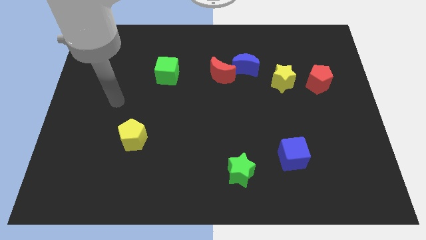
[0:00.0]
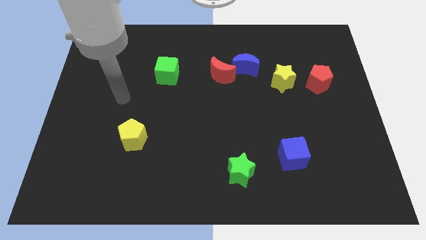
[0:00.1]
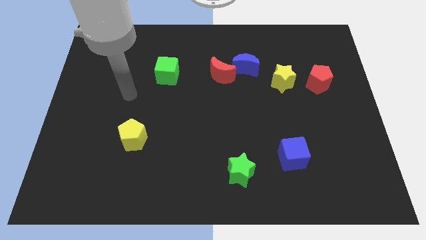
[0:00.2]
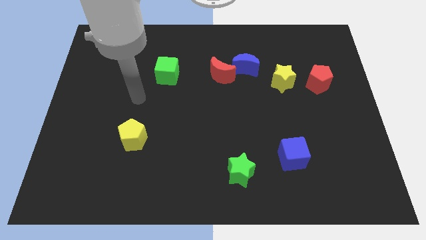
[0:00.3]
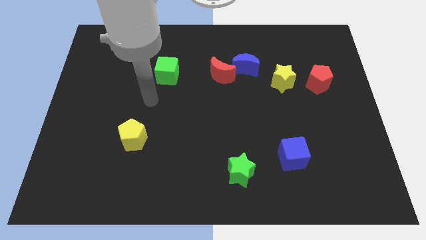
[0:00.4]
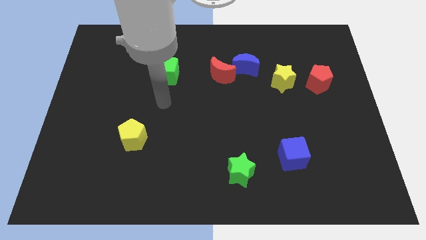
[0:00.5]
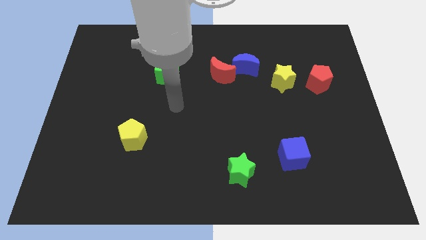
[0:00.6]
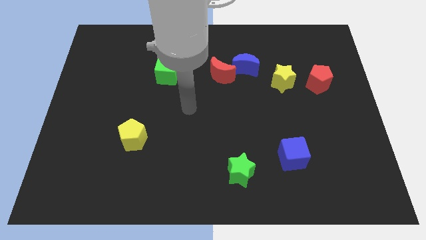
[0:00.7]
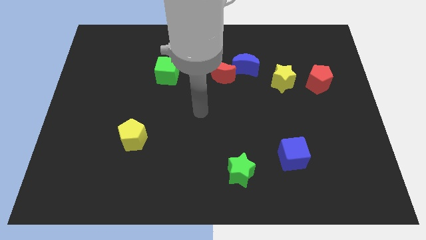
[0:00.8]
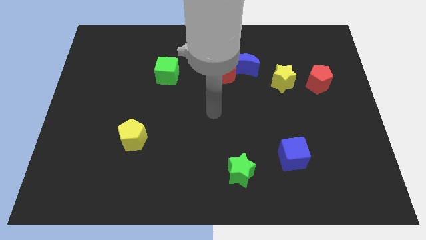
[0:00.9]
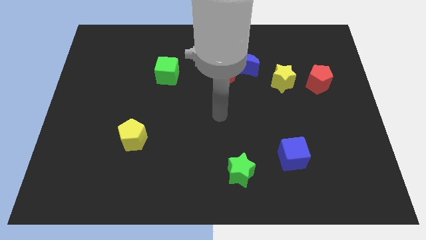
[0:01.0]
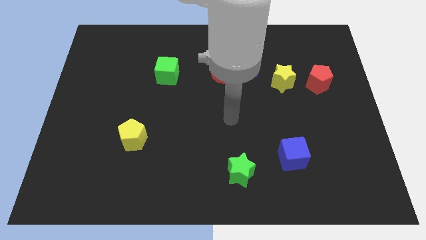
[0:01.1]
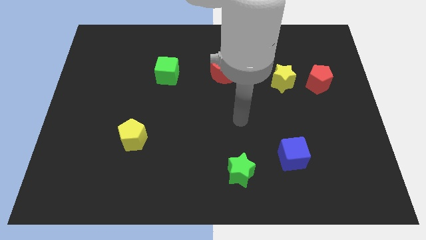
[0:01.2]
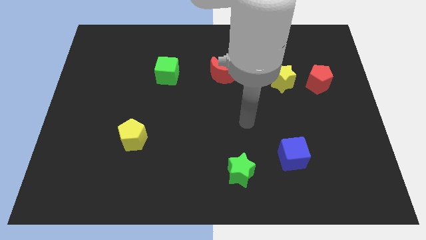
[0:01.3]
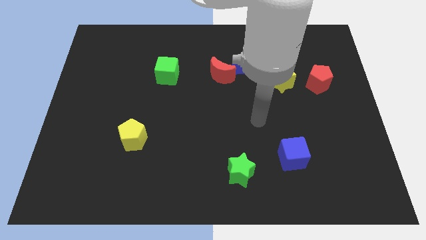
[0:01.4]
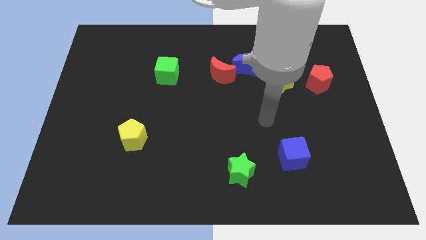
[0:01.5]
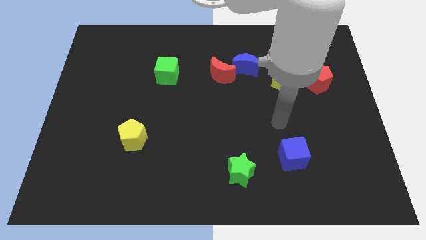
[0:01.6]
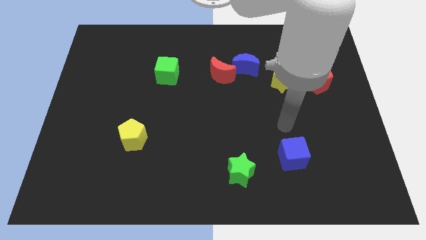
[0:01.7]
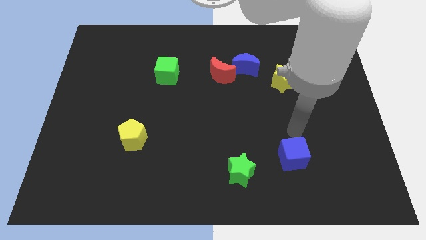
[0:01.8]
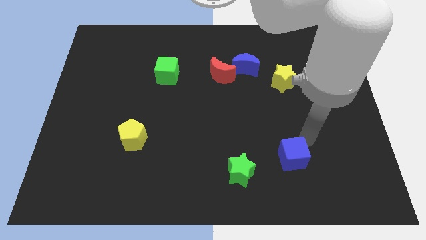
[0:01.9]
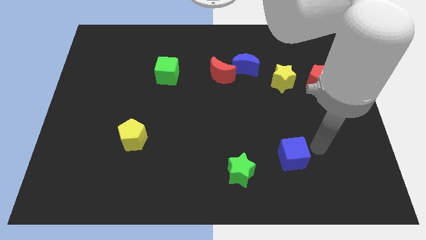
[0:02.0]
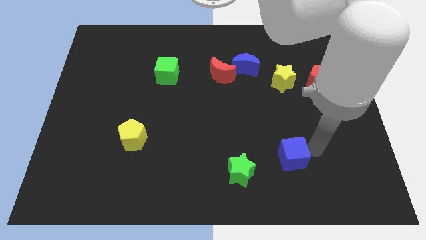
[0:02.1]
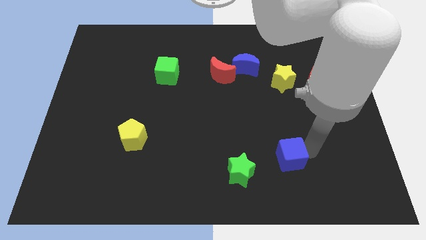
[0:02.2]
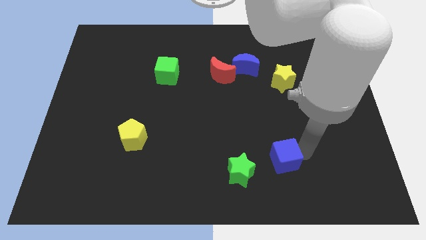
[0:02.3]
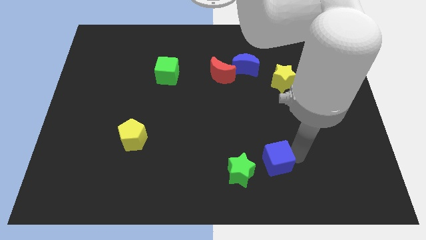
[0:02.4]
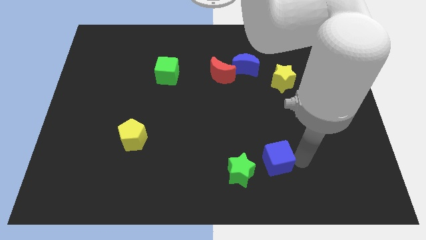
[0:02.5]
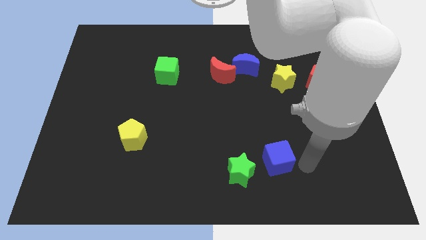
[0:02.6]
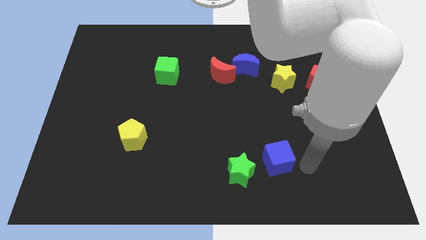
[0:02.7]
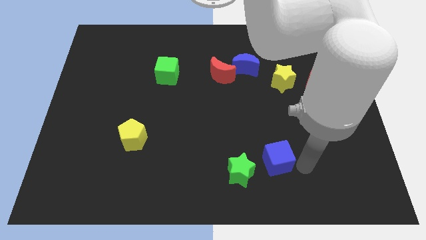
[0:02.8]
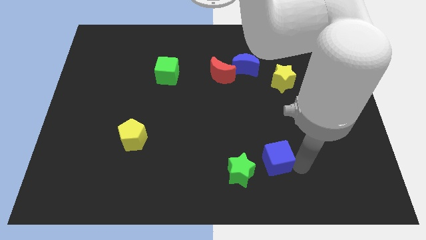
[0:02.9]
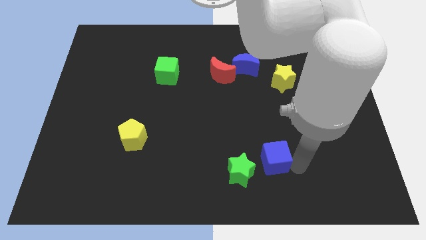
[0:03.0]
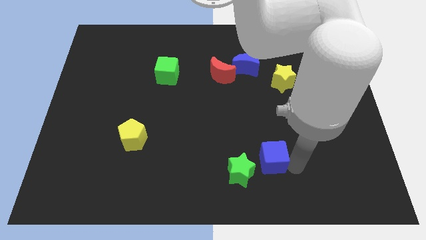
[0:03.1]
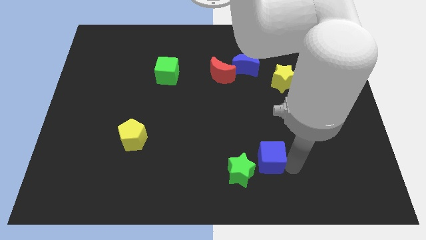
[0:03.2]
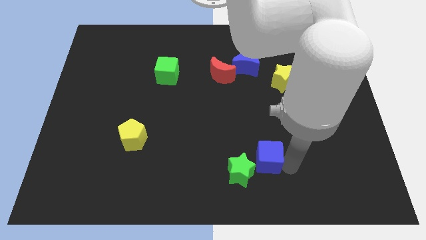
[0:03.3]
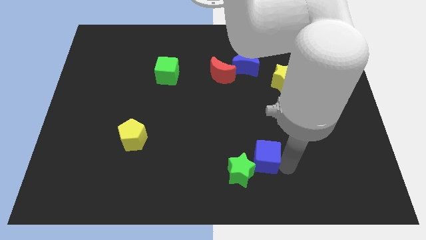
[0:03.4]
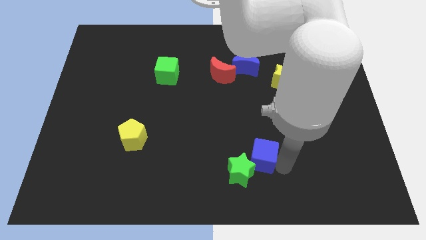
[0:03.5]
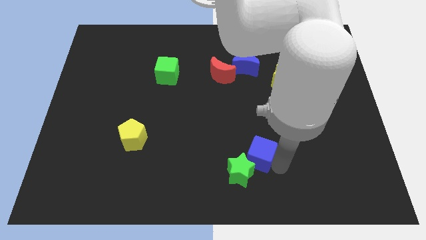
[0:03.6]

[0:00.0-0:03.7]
push the blue cube a little to the left

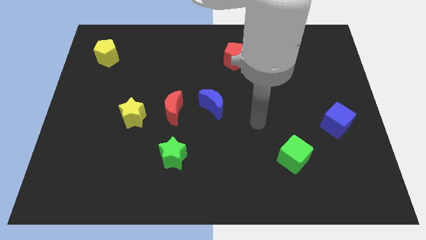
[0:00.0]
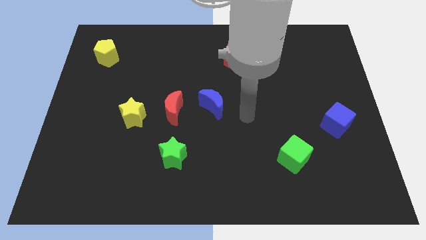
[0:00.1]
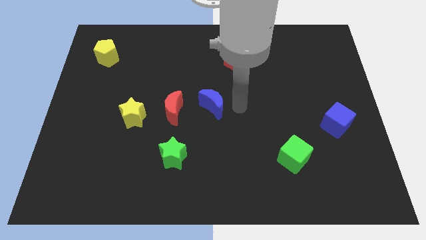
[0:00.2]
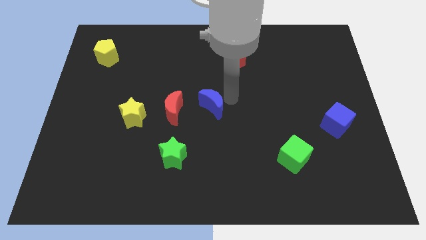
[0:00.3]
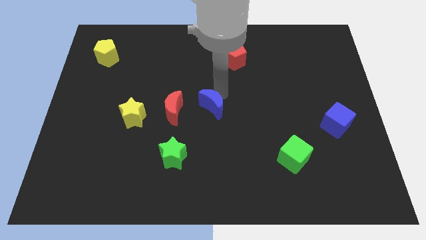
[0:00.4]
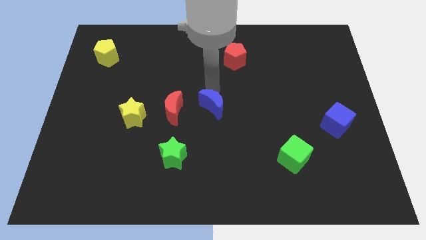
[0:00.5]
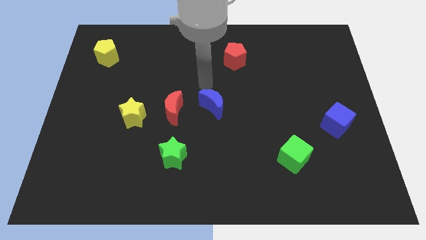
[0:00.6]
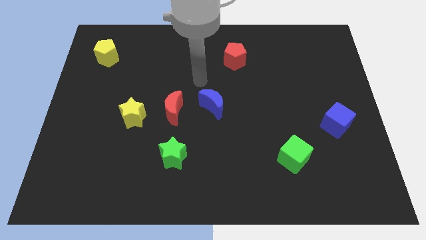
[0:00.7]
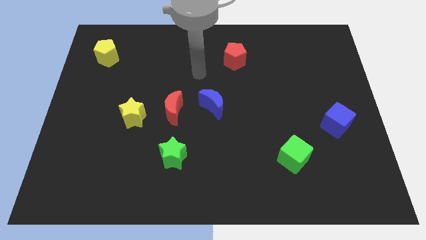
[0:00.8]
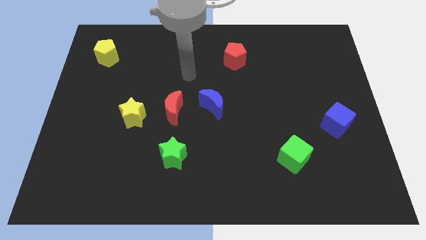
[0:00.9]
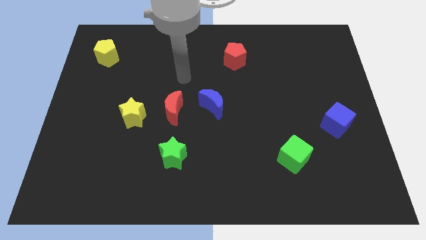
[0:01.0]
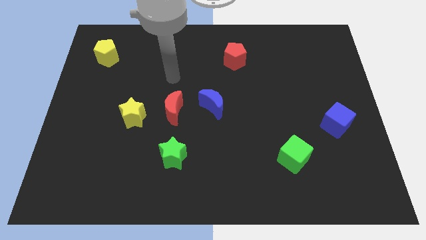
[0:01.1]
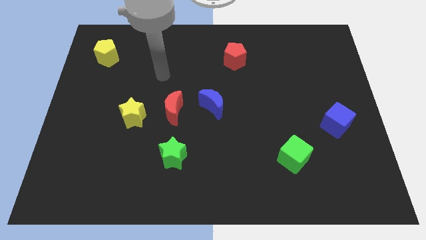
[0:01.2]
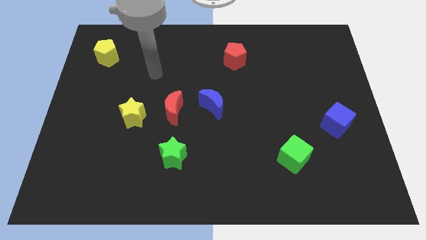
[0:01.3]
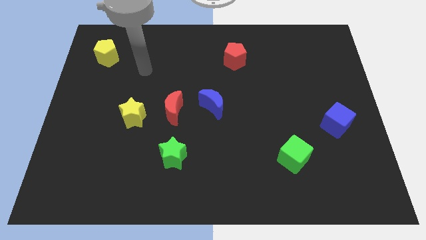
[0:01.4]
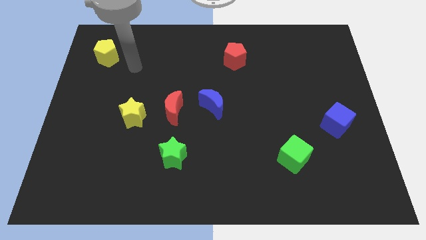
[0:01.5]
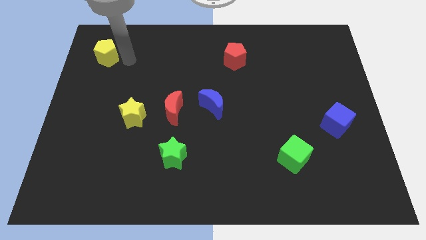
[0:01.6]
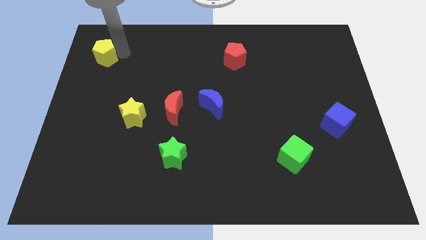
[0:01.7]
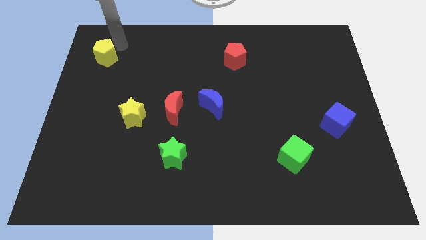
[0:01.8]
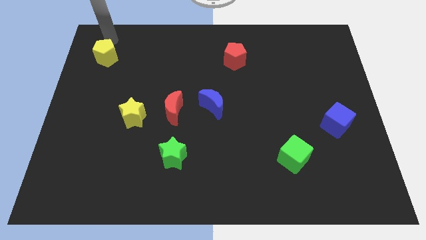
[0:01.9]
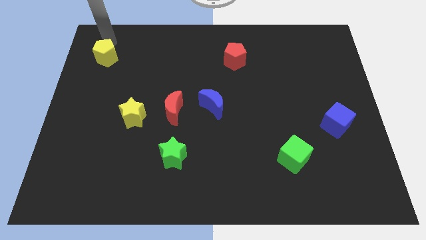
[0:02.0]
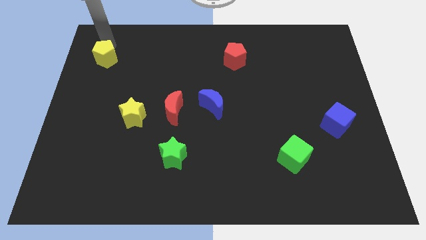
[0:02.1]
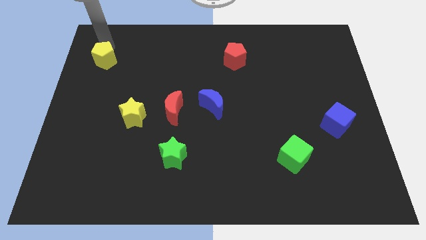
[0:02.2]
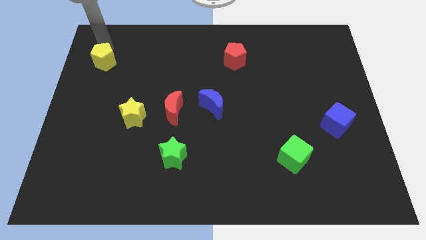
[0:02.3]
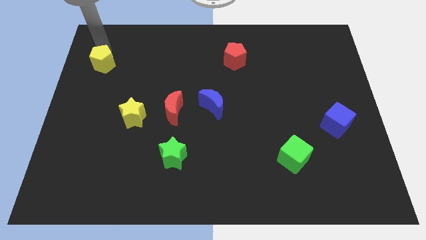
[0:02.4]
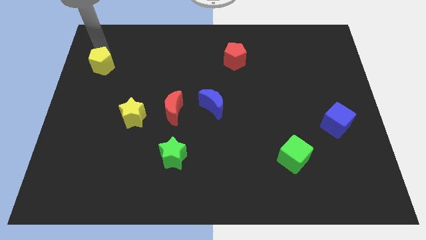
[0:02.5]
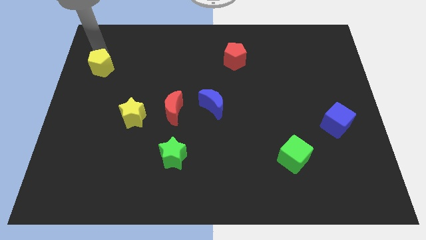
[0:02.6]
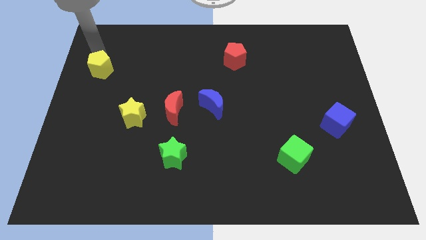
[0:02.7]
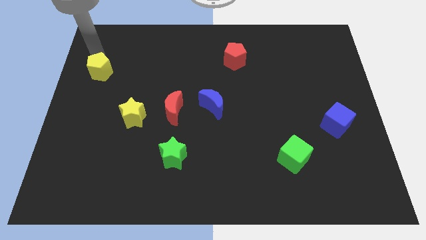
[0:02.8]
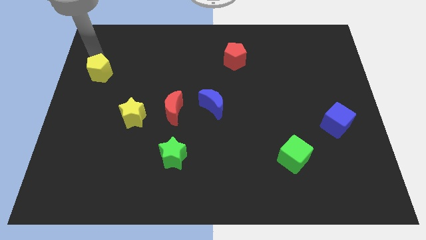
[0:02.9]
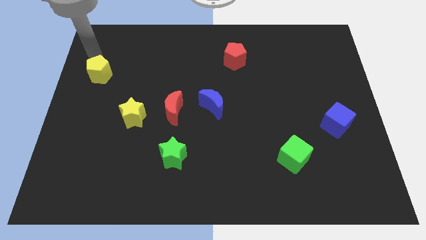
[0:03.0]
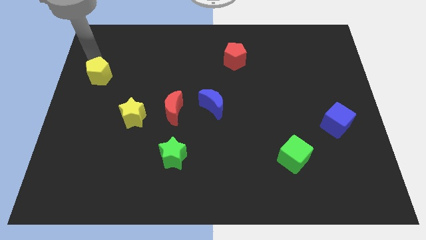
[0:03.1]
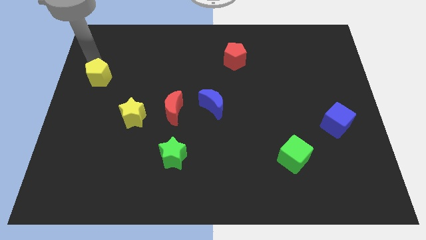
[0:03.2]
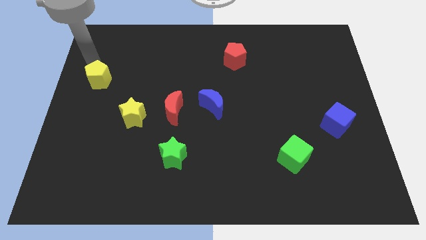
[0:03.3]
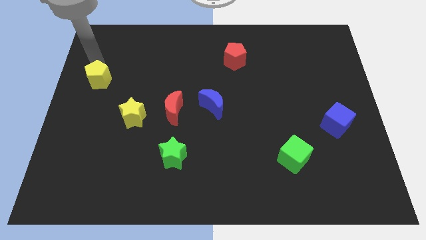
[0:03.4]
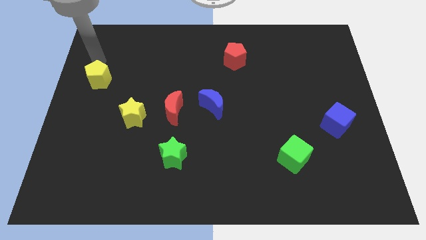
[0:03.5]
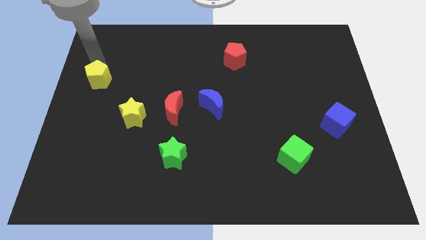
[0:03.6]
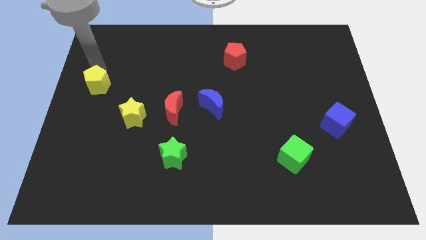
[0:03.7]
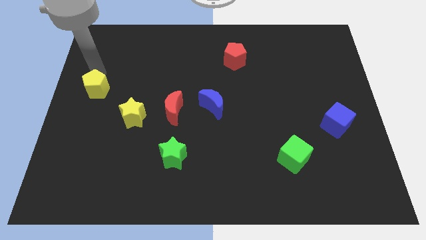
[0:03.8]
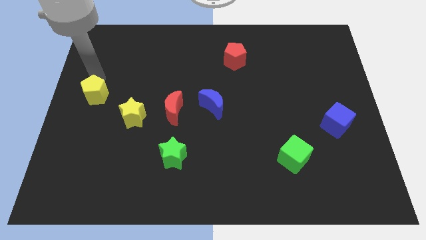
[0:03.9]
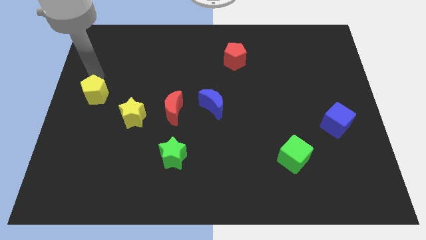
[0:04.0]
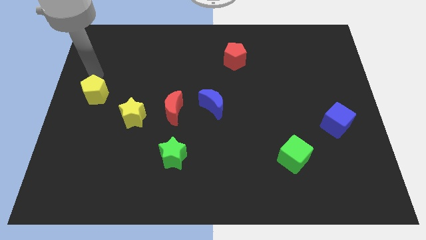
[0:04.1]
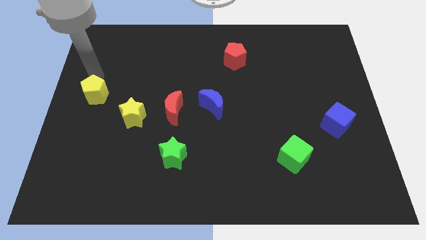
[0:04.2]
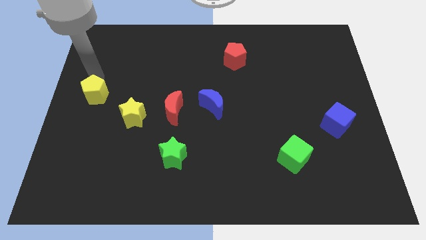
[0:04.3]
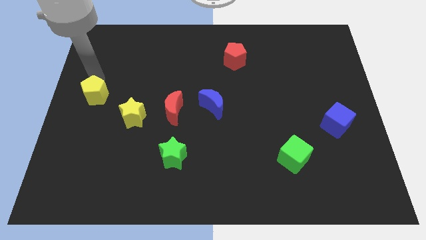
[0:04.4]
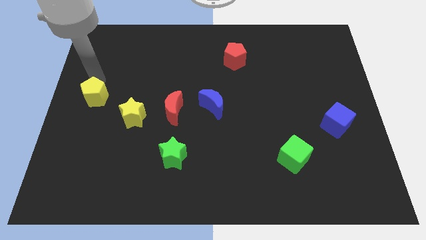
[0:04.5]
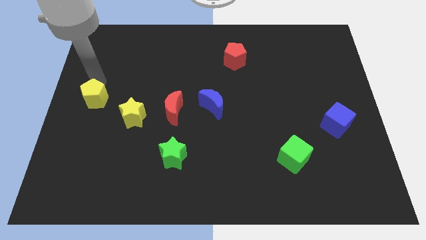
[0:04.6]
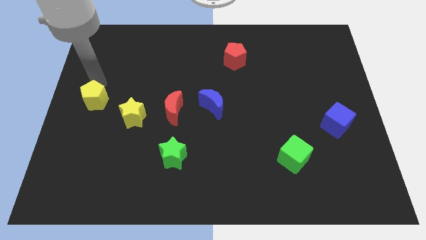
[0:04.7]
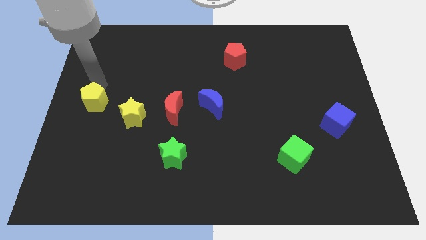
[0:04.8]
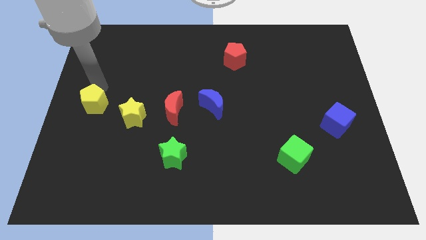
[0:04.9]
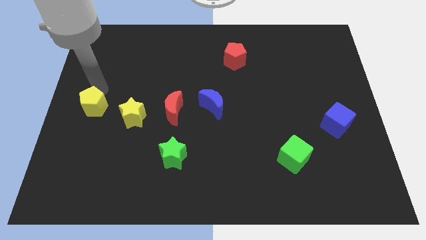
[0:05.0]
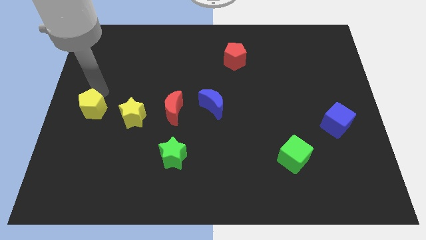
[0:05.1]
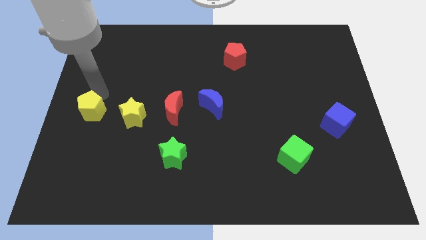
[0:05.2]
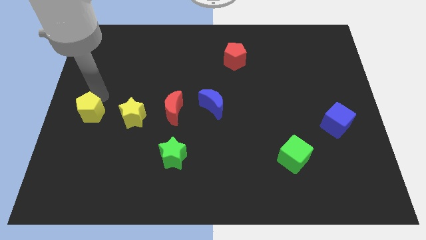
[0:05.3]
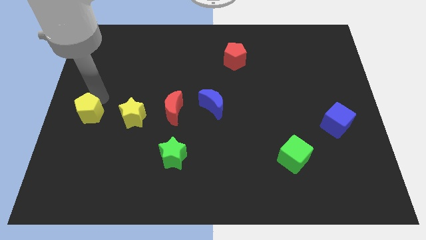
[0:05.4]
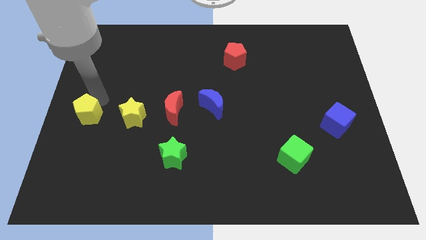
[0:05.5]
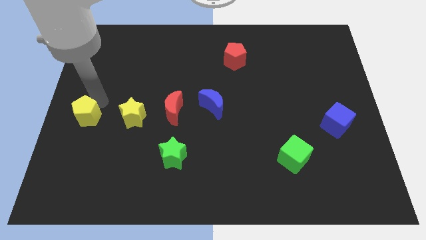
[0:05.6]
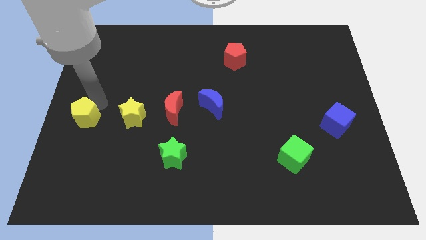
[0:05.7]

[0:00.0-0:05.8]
slide the yellow pentagon downwards
